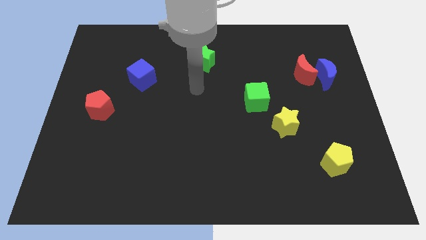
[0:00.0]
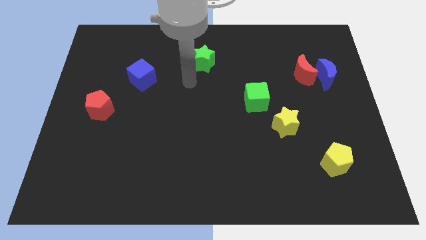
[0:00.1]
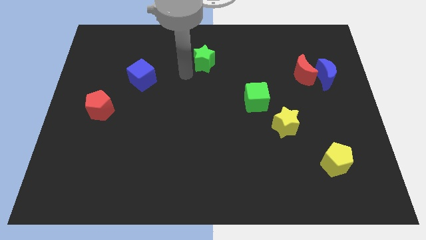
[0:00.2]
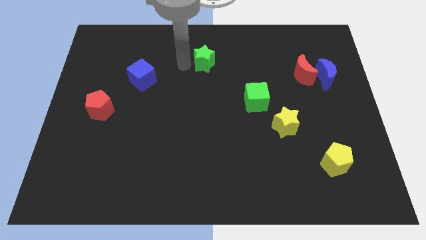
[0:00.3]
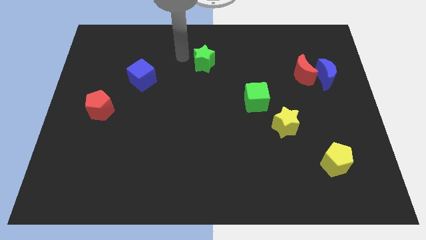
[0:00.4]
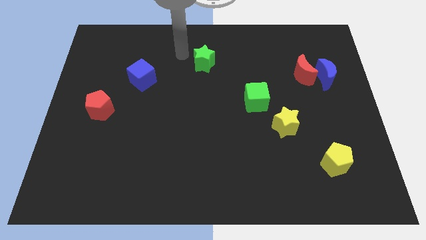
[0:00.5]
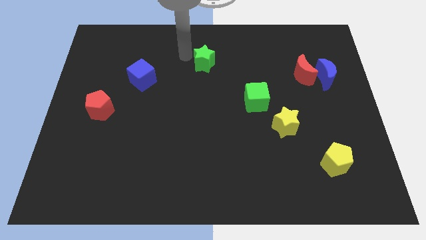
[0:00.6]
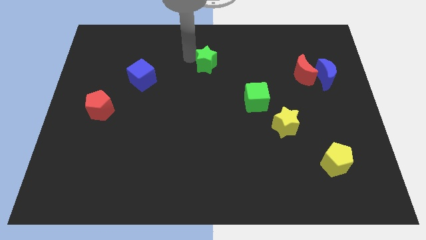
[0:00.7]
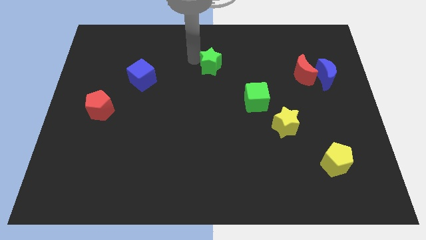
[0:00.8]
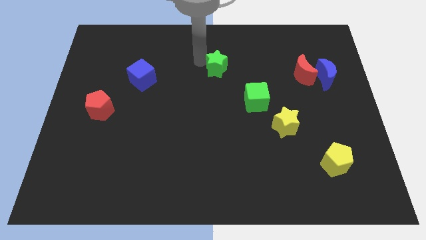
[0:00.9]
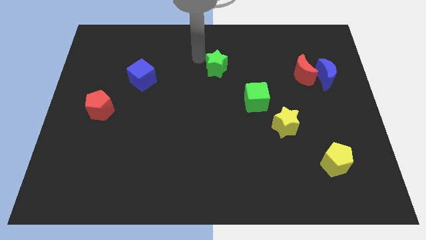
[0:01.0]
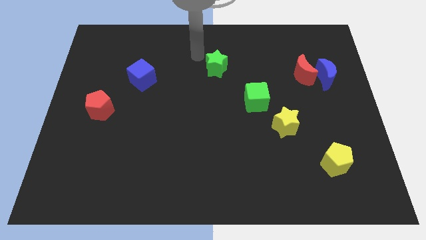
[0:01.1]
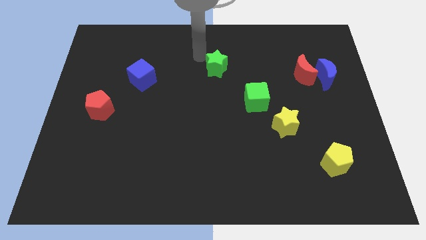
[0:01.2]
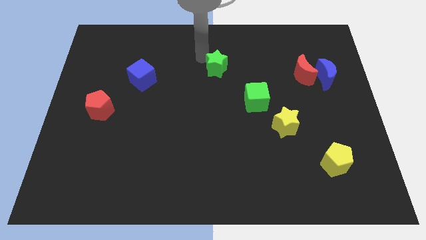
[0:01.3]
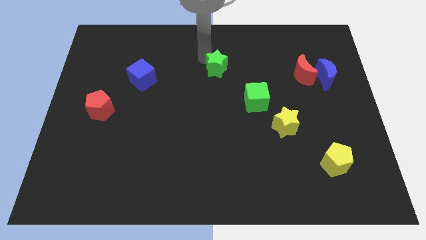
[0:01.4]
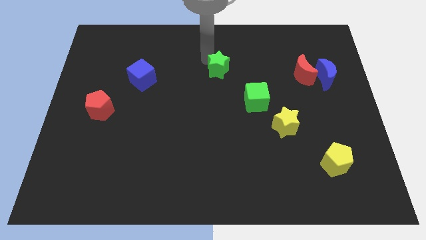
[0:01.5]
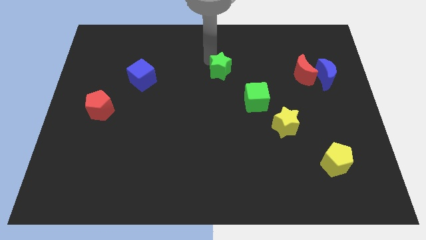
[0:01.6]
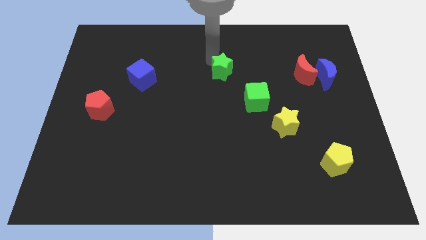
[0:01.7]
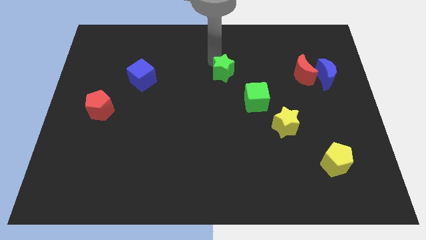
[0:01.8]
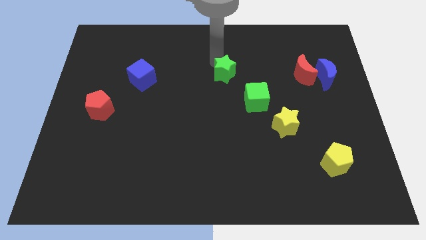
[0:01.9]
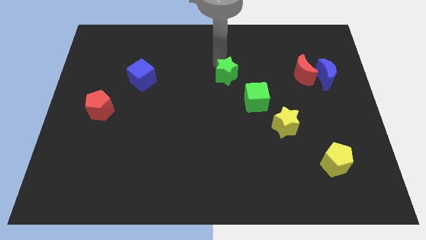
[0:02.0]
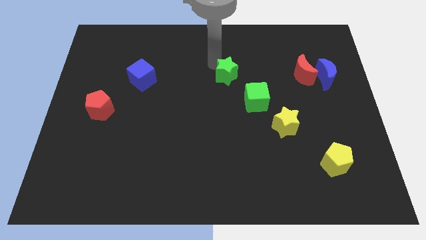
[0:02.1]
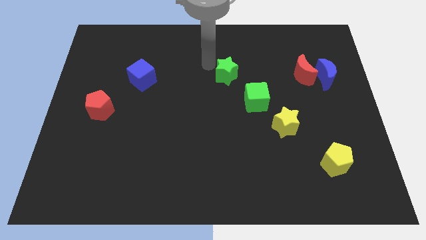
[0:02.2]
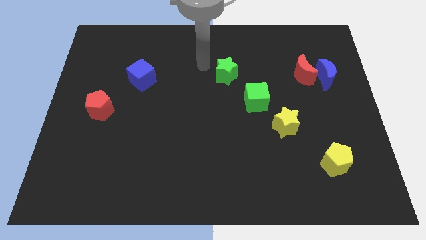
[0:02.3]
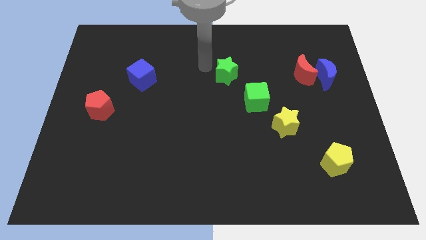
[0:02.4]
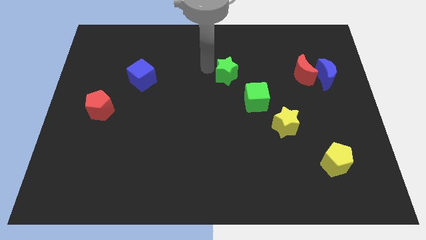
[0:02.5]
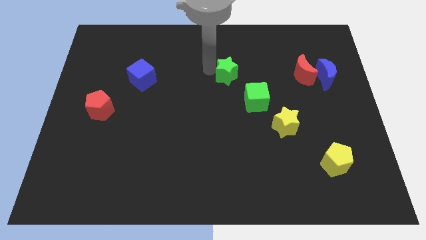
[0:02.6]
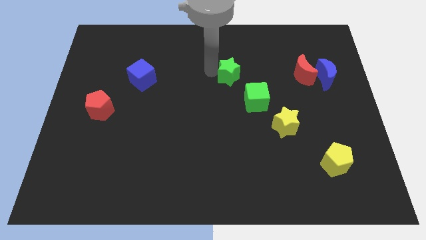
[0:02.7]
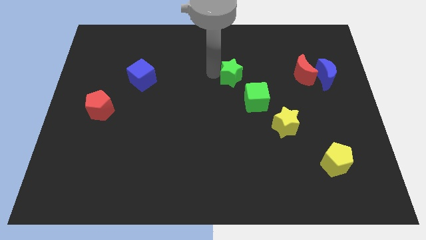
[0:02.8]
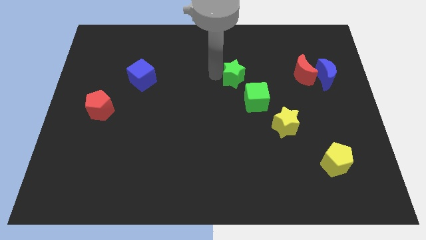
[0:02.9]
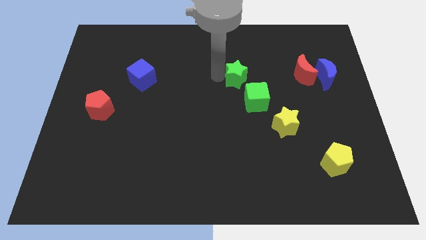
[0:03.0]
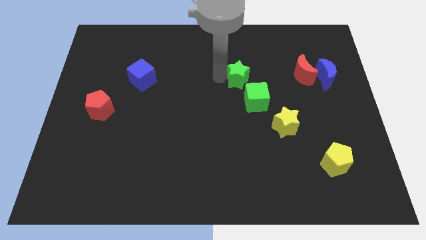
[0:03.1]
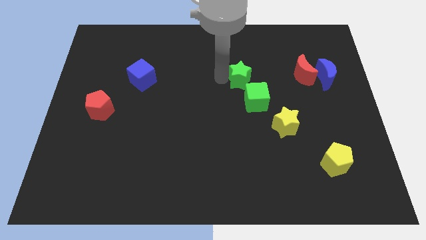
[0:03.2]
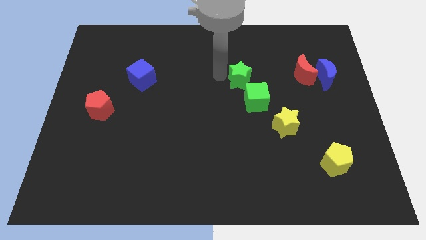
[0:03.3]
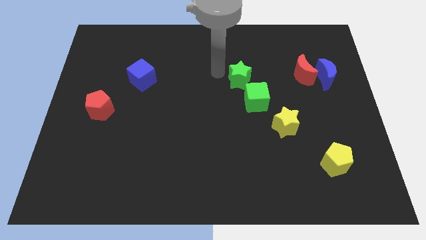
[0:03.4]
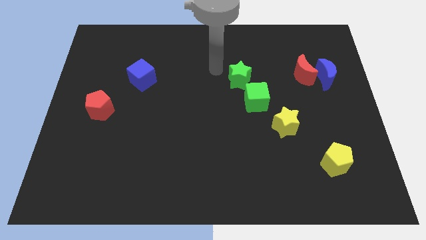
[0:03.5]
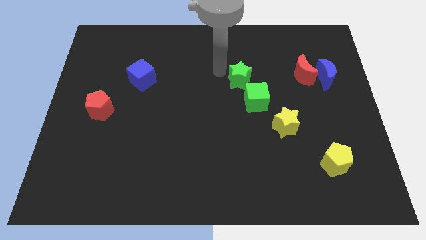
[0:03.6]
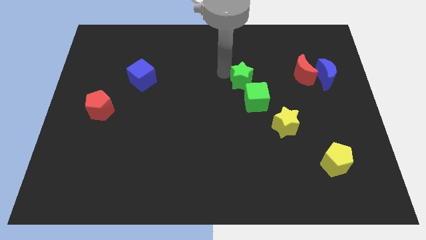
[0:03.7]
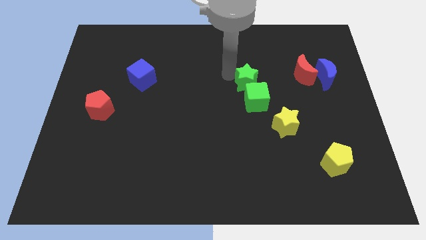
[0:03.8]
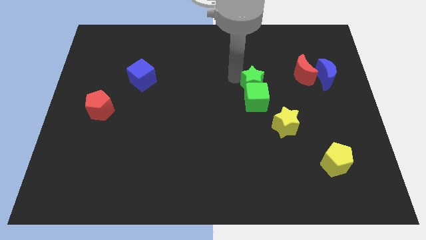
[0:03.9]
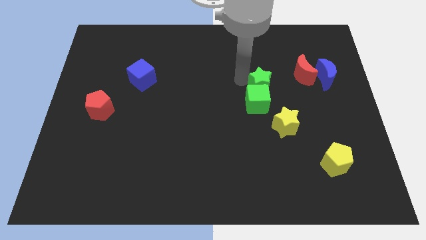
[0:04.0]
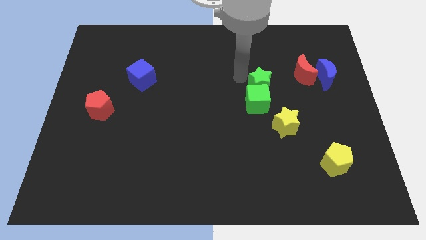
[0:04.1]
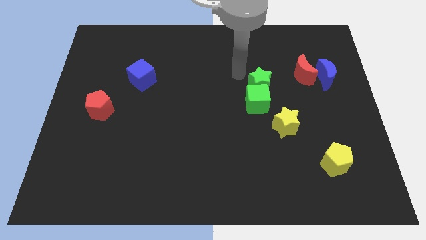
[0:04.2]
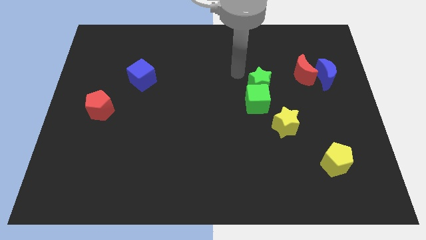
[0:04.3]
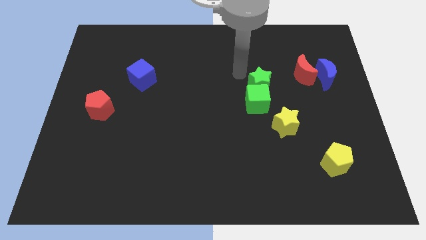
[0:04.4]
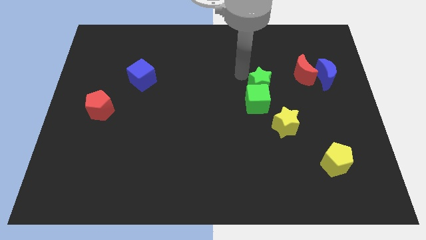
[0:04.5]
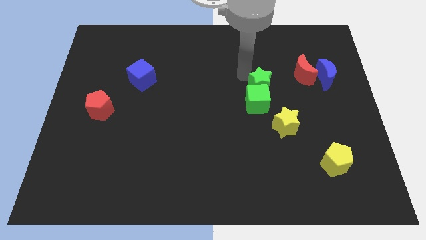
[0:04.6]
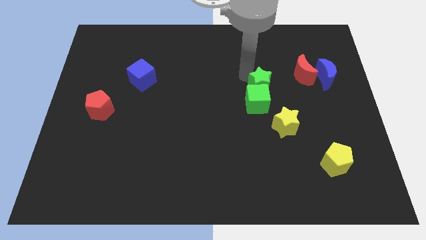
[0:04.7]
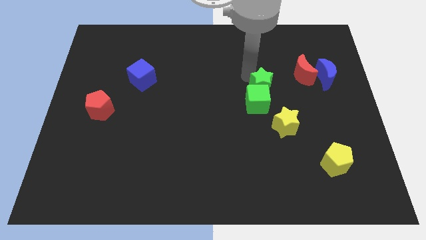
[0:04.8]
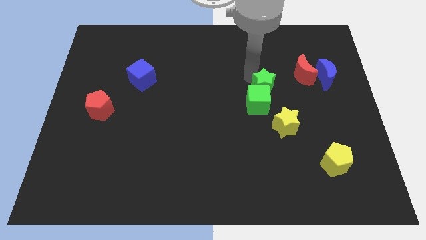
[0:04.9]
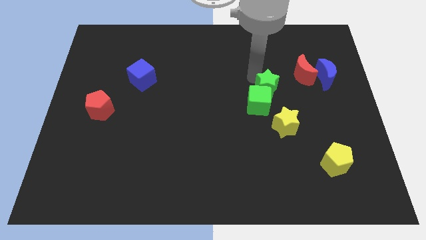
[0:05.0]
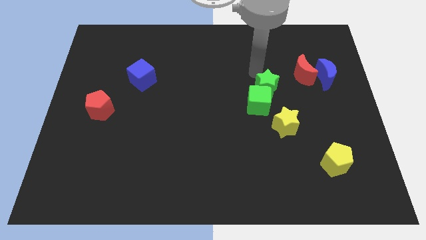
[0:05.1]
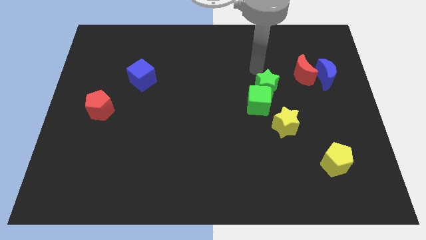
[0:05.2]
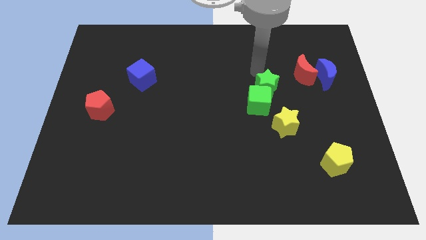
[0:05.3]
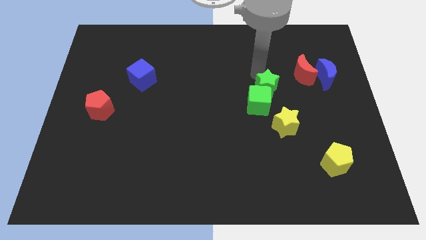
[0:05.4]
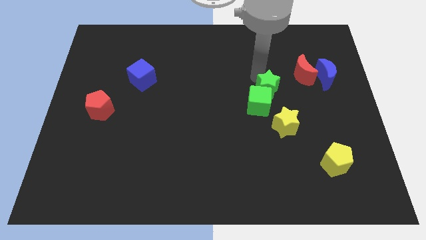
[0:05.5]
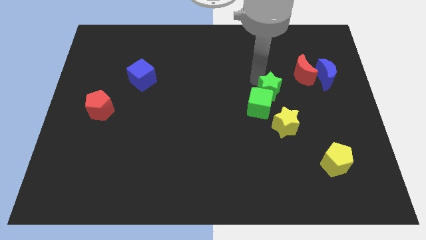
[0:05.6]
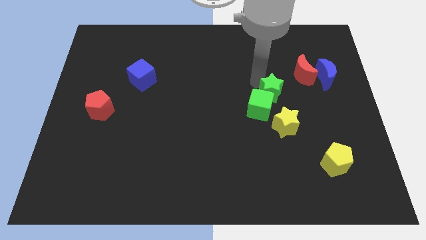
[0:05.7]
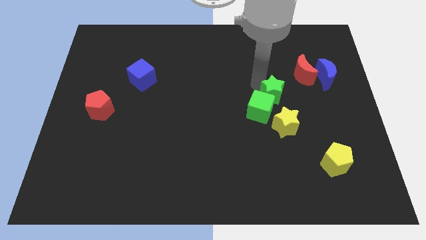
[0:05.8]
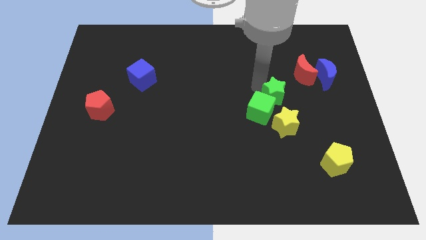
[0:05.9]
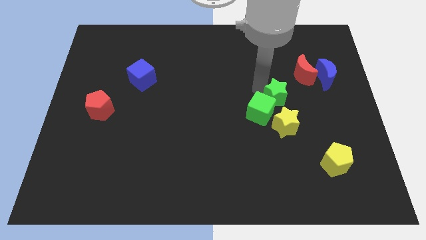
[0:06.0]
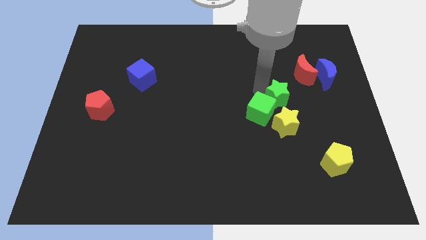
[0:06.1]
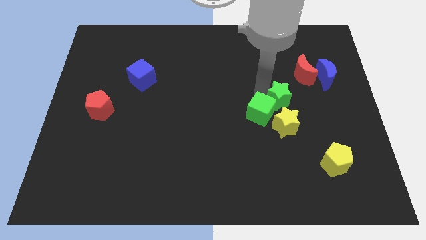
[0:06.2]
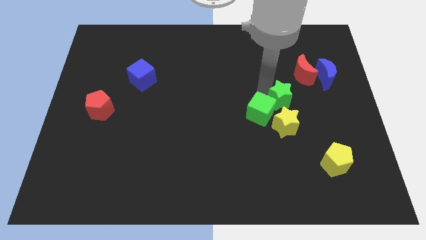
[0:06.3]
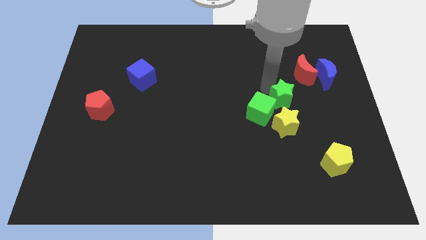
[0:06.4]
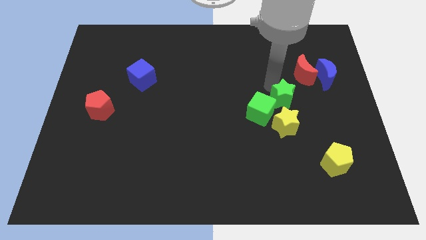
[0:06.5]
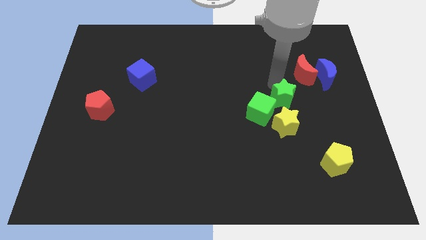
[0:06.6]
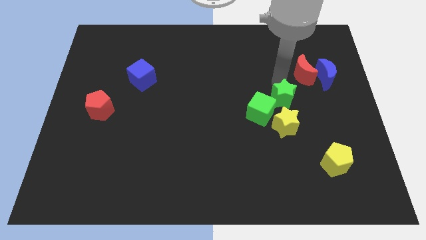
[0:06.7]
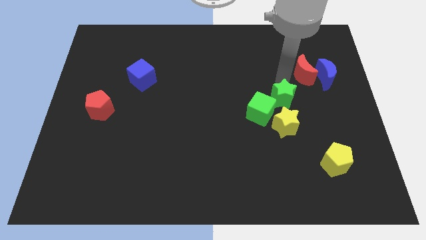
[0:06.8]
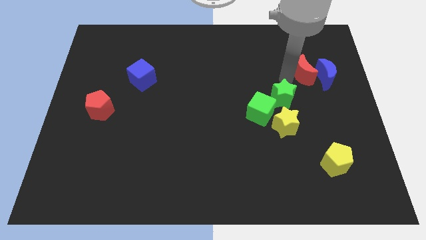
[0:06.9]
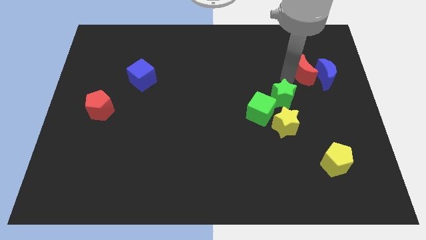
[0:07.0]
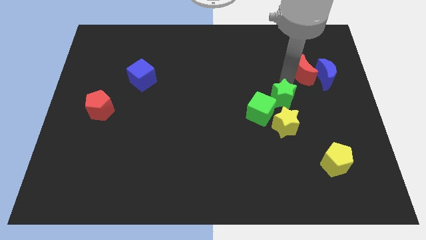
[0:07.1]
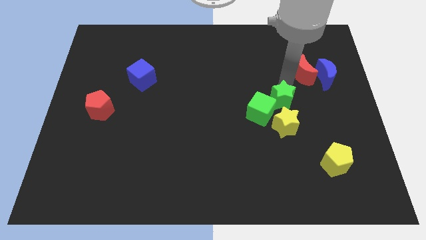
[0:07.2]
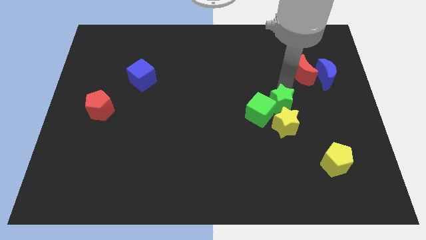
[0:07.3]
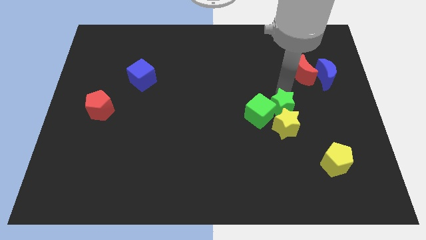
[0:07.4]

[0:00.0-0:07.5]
slide the green star close to the yellow star
